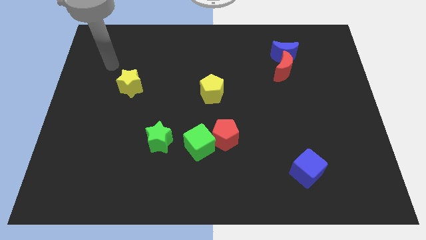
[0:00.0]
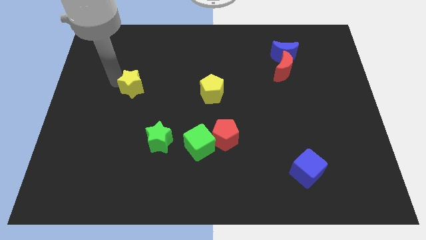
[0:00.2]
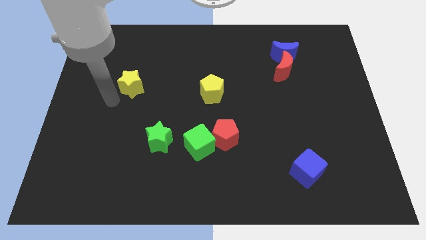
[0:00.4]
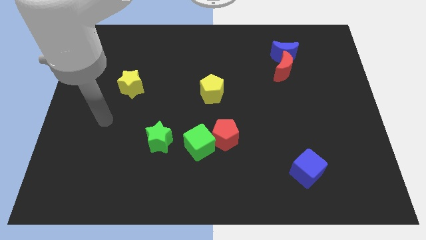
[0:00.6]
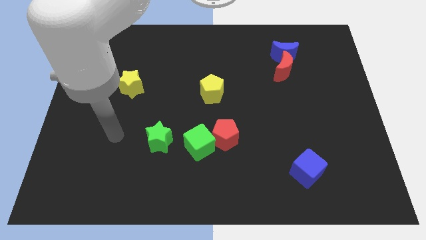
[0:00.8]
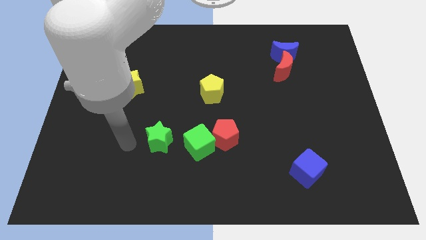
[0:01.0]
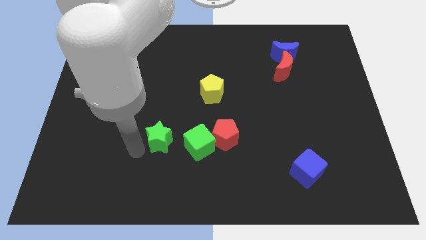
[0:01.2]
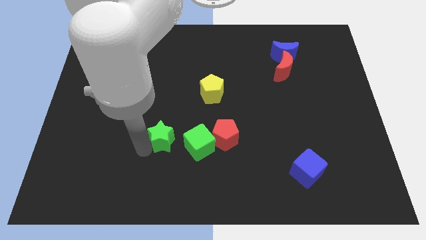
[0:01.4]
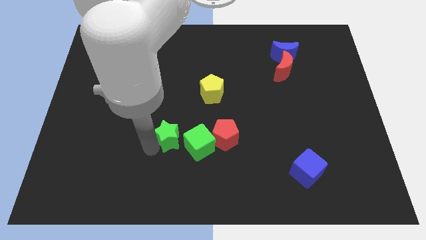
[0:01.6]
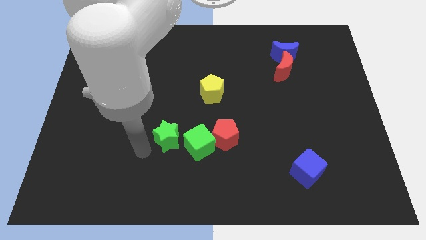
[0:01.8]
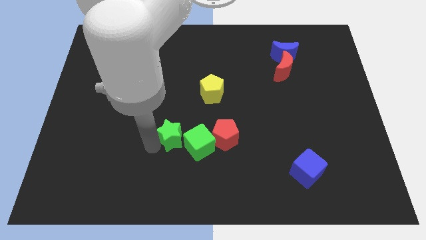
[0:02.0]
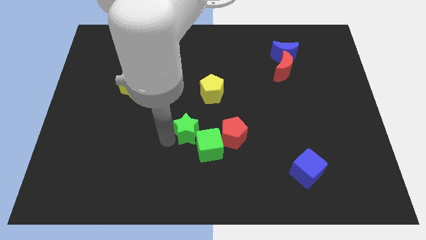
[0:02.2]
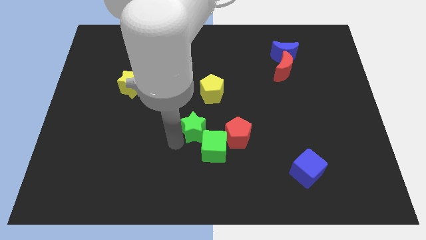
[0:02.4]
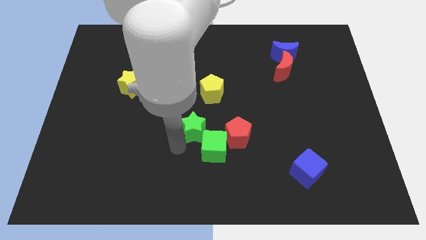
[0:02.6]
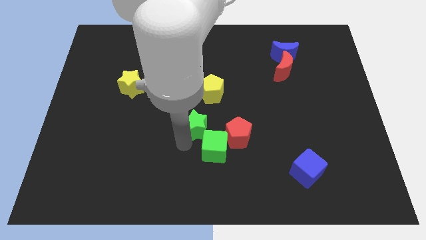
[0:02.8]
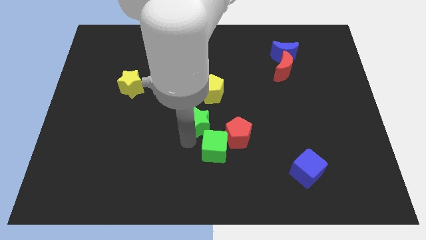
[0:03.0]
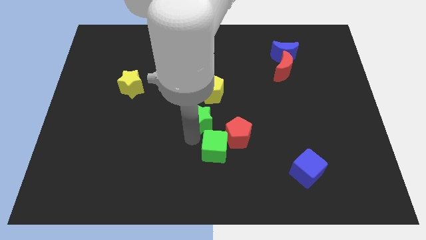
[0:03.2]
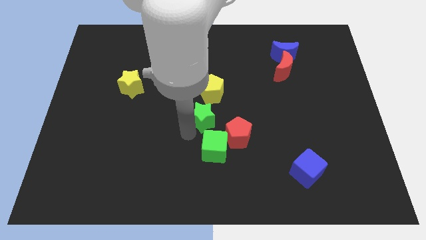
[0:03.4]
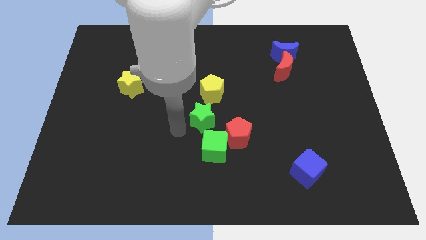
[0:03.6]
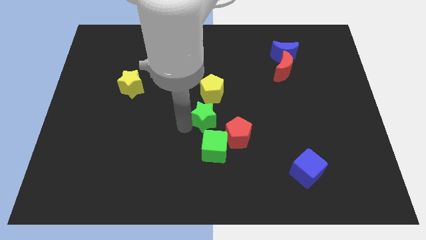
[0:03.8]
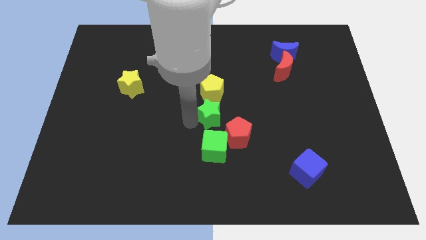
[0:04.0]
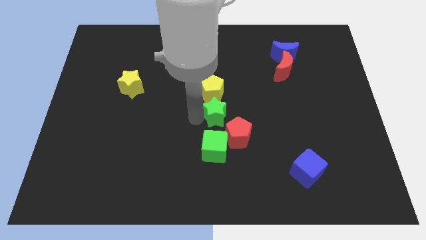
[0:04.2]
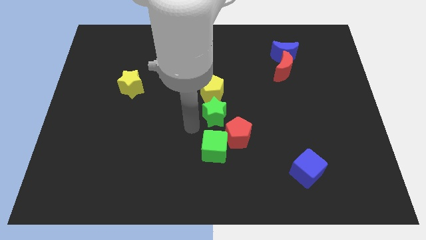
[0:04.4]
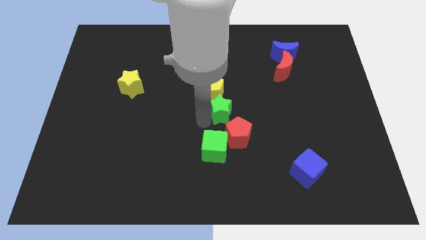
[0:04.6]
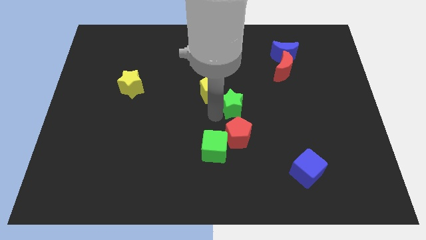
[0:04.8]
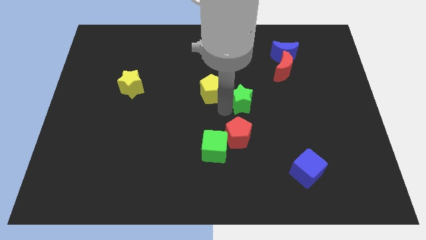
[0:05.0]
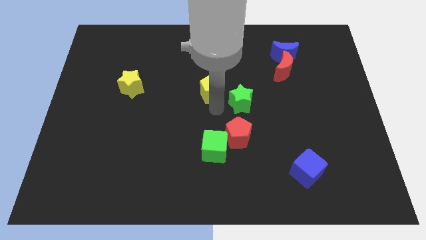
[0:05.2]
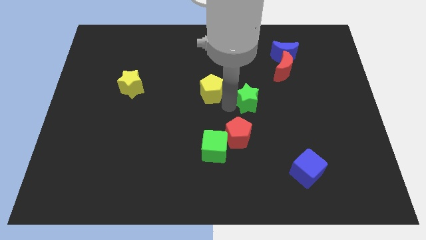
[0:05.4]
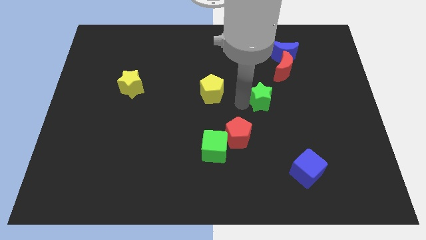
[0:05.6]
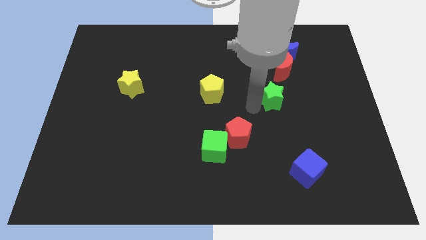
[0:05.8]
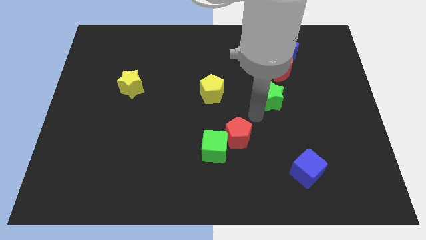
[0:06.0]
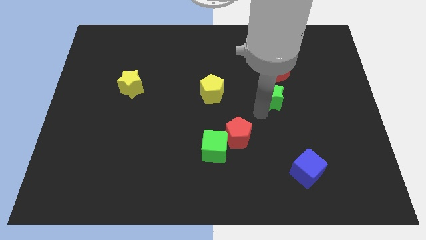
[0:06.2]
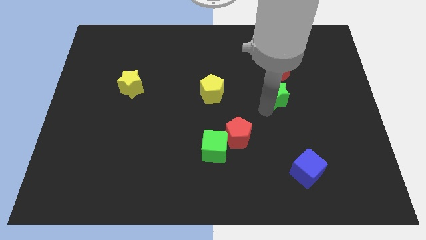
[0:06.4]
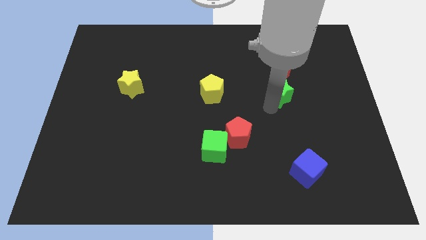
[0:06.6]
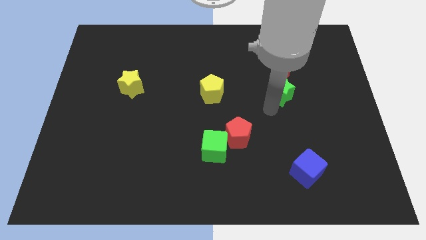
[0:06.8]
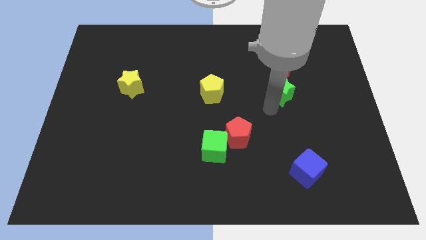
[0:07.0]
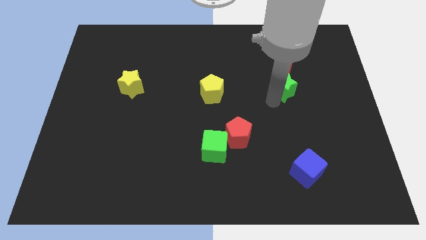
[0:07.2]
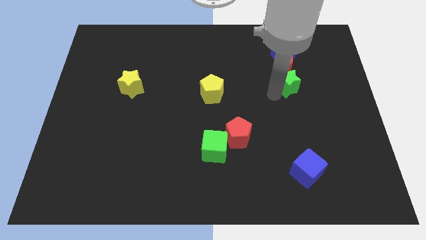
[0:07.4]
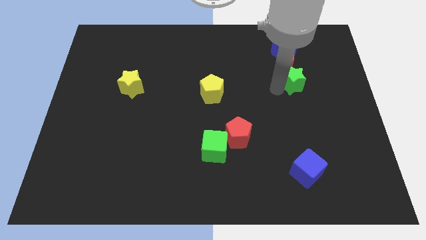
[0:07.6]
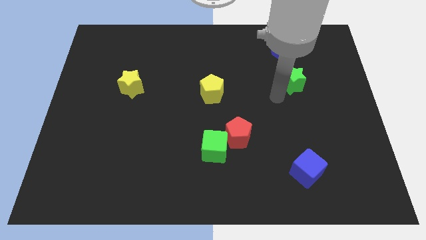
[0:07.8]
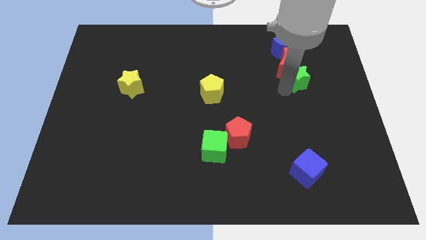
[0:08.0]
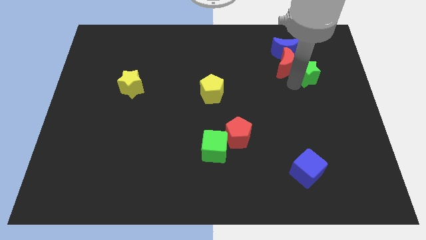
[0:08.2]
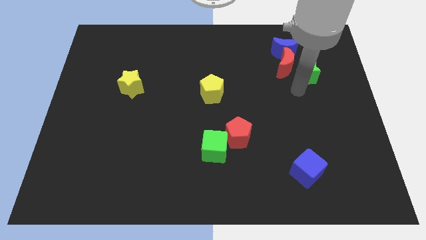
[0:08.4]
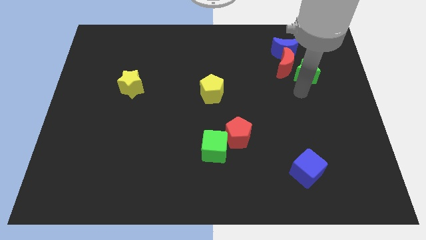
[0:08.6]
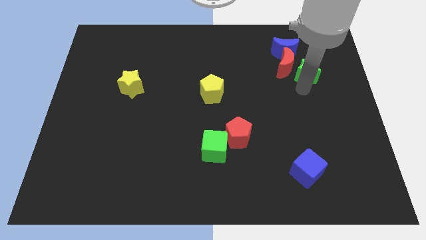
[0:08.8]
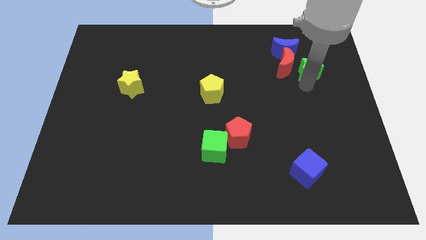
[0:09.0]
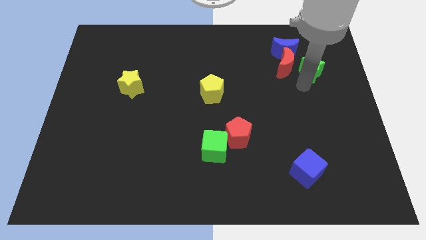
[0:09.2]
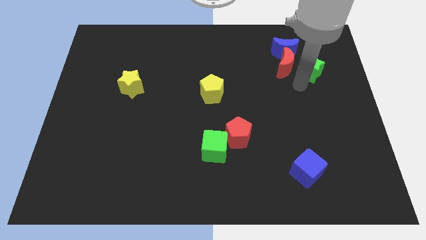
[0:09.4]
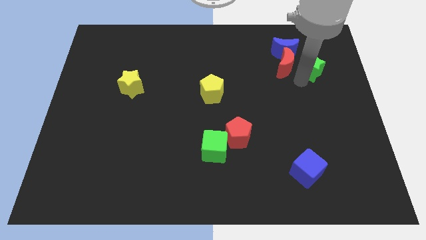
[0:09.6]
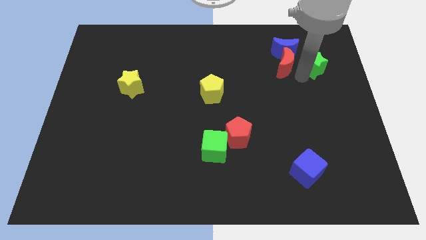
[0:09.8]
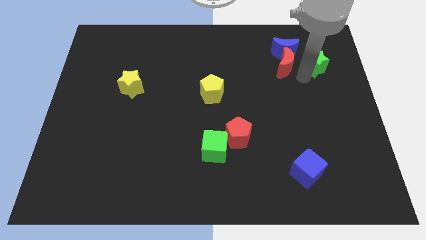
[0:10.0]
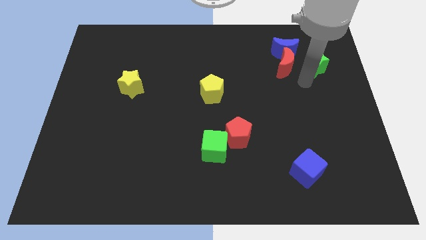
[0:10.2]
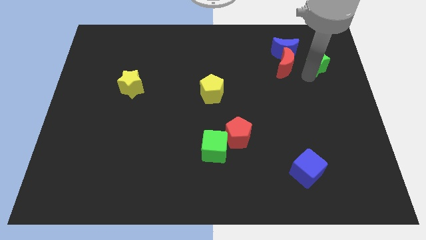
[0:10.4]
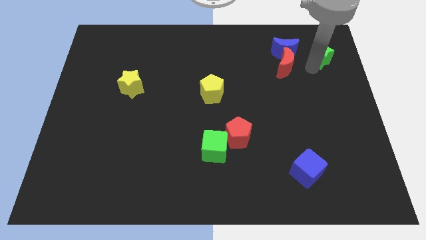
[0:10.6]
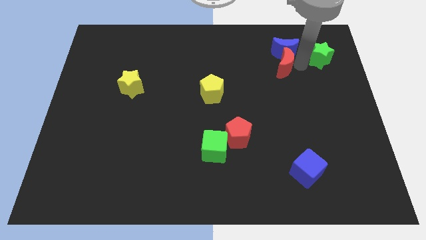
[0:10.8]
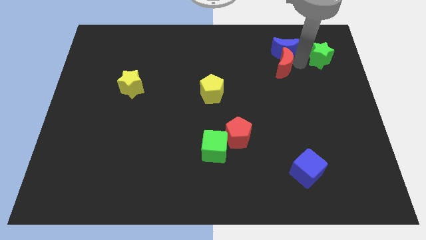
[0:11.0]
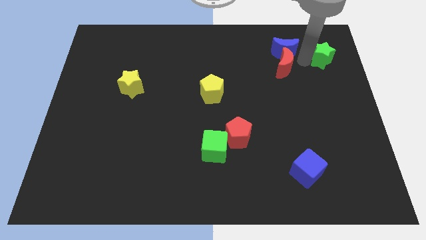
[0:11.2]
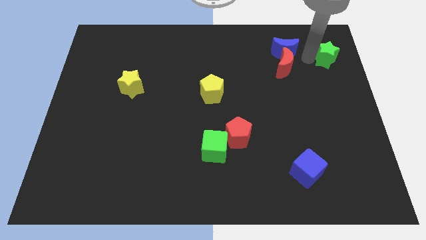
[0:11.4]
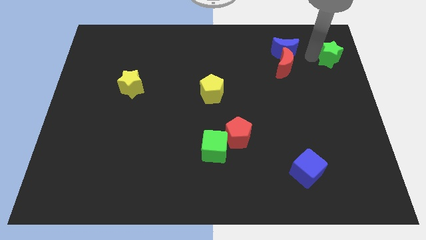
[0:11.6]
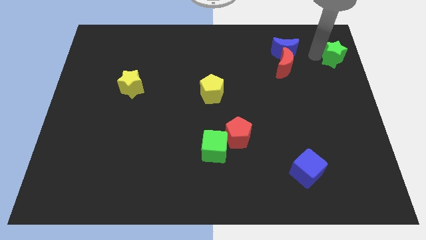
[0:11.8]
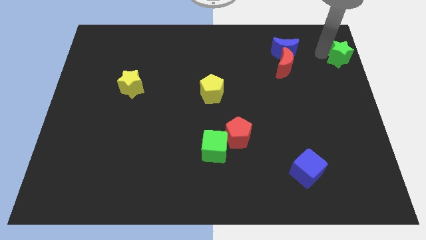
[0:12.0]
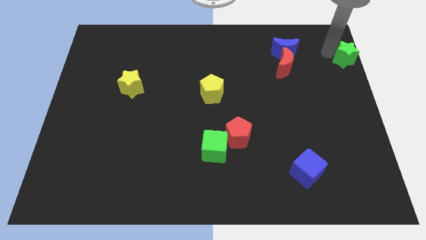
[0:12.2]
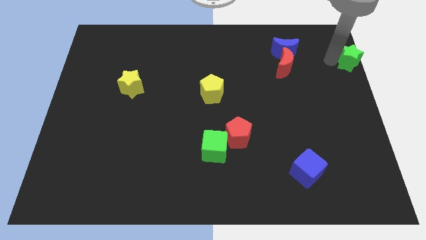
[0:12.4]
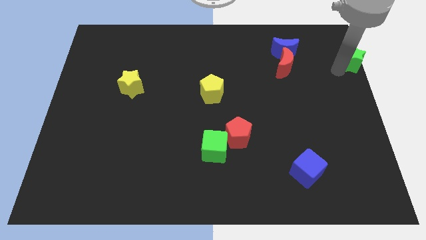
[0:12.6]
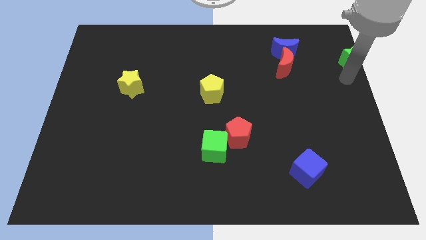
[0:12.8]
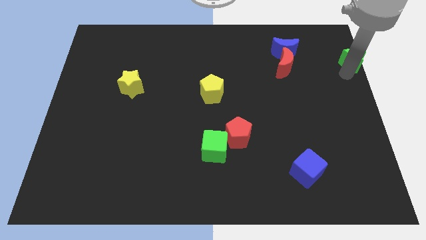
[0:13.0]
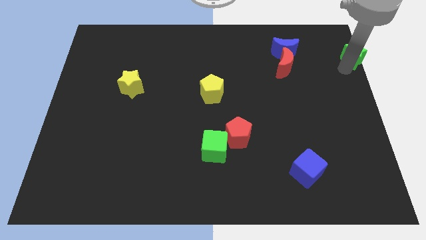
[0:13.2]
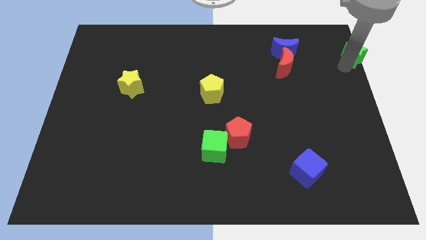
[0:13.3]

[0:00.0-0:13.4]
move the green star to the upper right corner

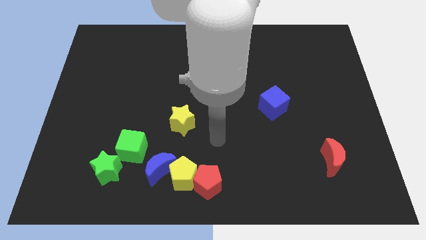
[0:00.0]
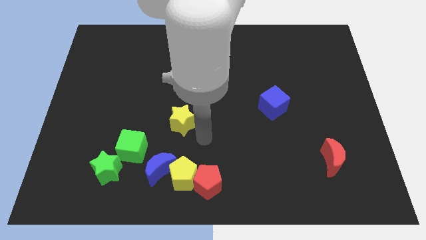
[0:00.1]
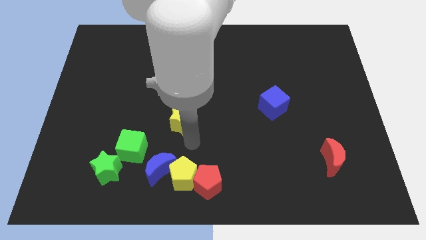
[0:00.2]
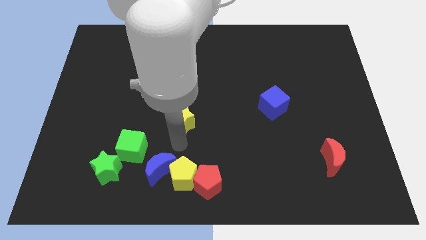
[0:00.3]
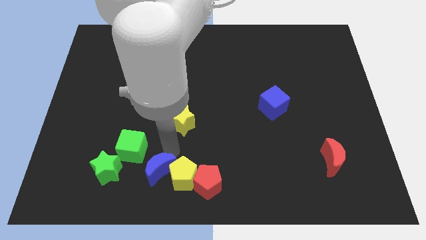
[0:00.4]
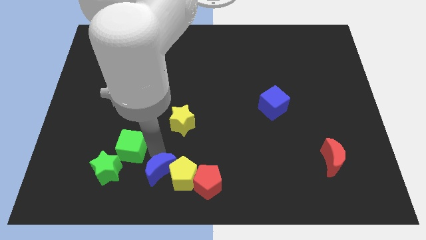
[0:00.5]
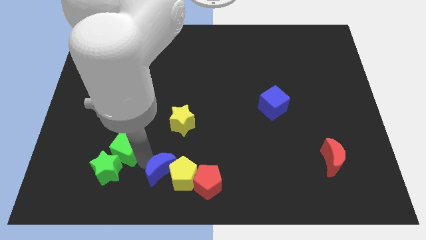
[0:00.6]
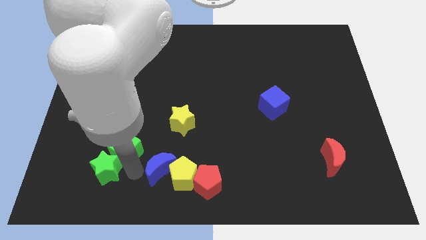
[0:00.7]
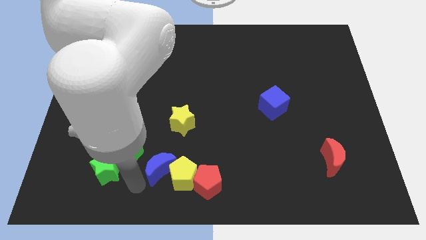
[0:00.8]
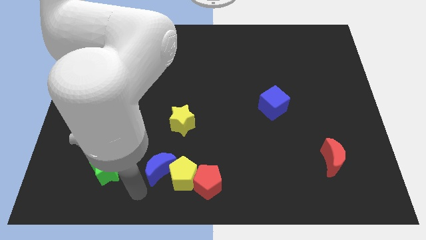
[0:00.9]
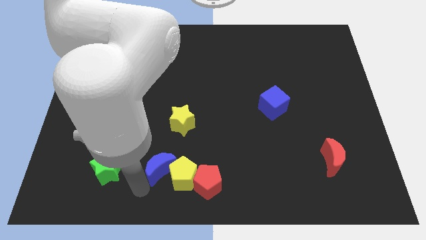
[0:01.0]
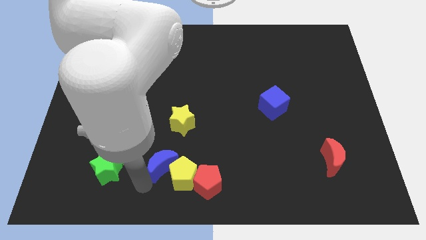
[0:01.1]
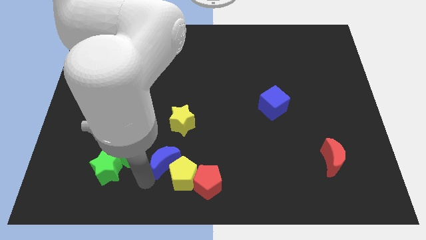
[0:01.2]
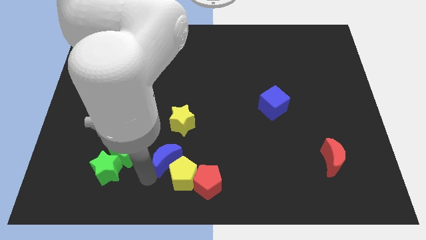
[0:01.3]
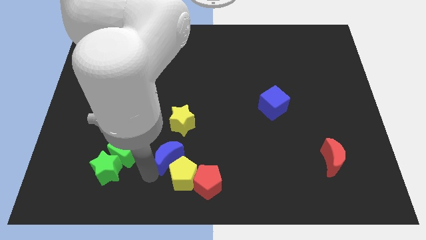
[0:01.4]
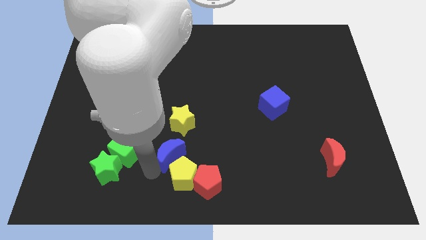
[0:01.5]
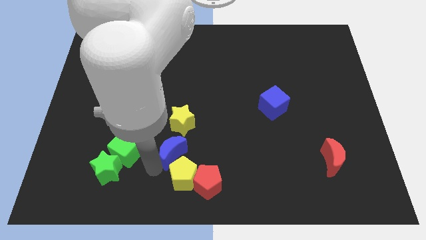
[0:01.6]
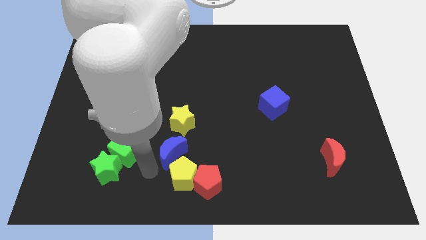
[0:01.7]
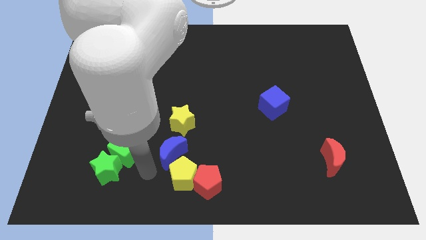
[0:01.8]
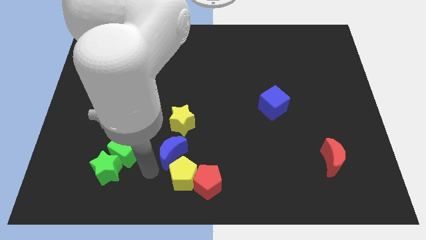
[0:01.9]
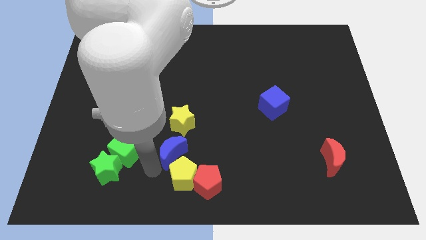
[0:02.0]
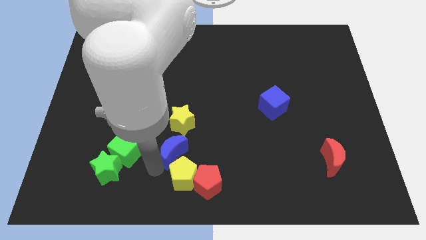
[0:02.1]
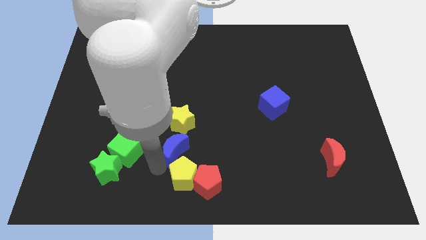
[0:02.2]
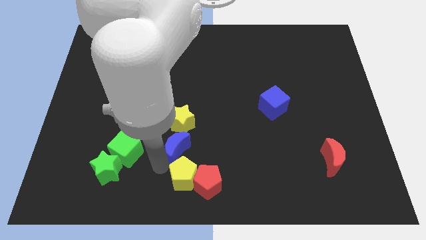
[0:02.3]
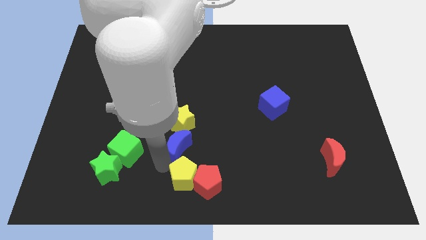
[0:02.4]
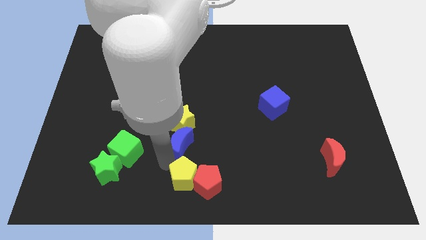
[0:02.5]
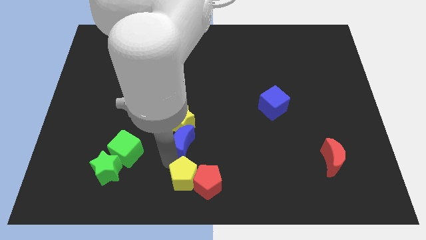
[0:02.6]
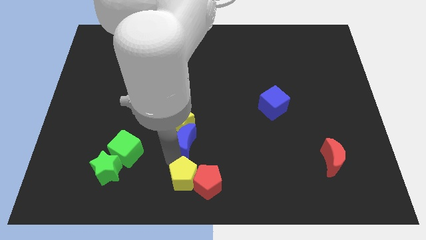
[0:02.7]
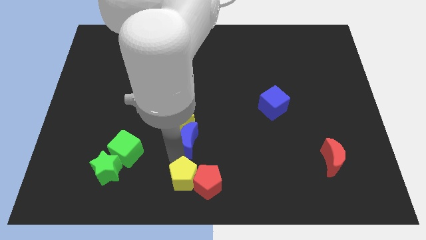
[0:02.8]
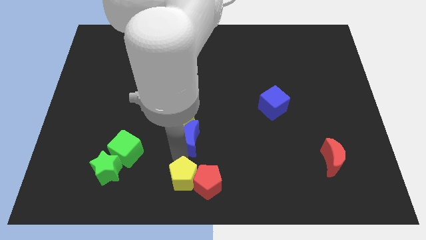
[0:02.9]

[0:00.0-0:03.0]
move the blue moon to the middle of the board
